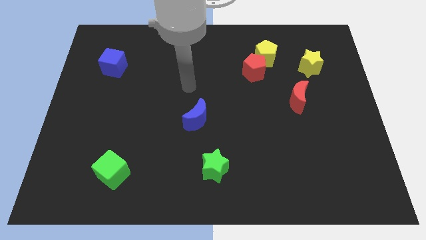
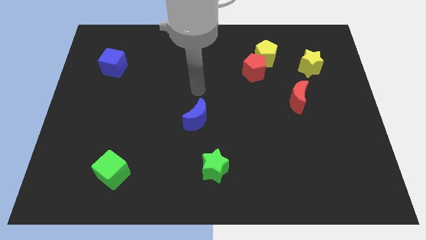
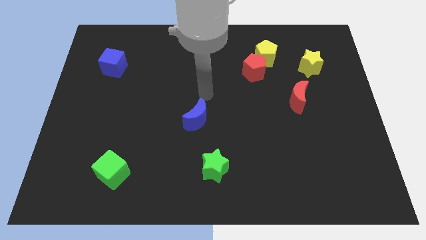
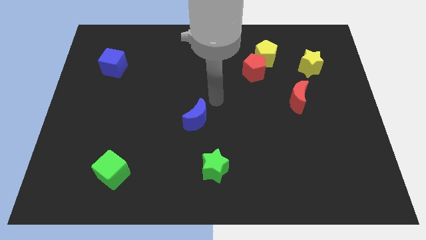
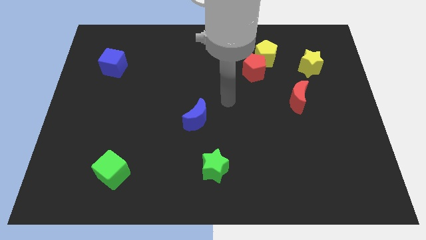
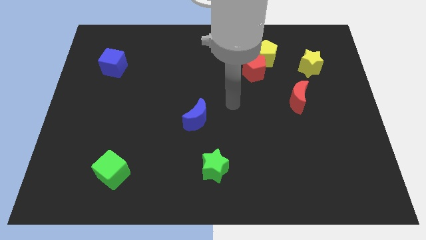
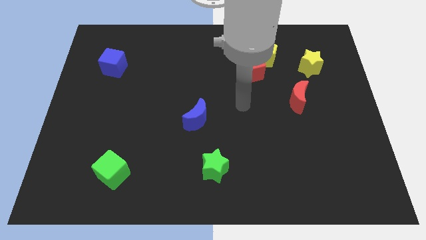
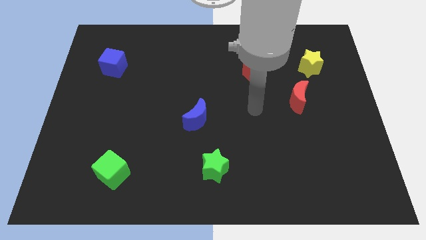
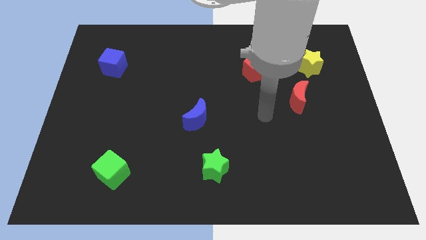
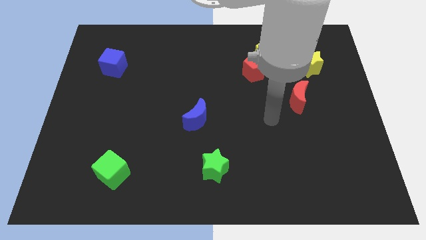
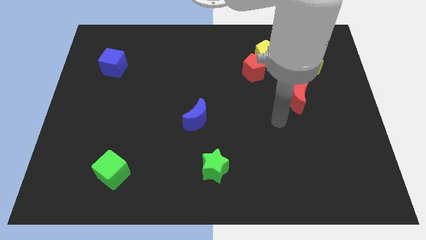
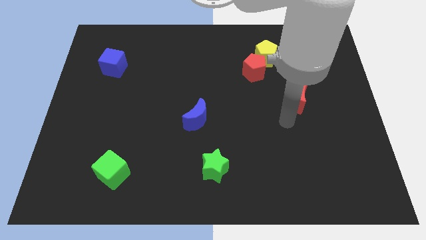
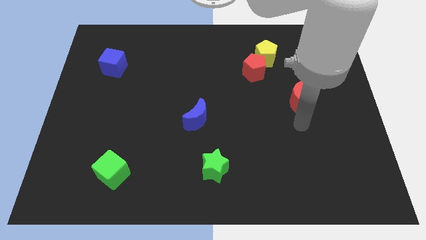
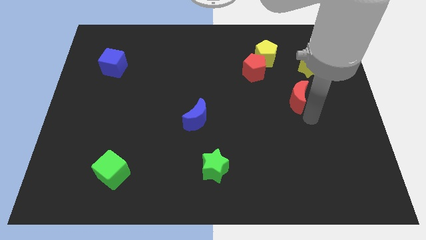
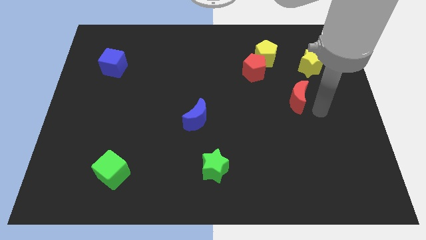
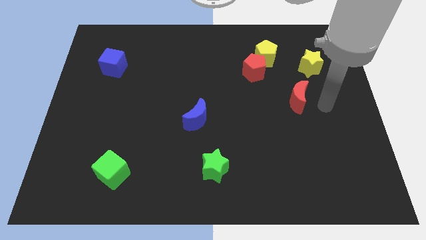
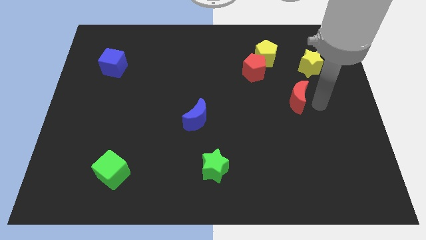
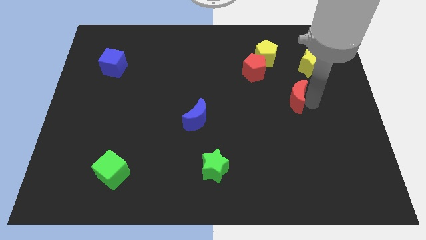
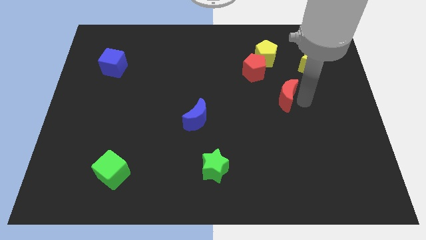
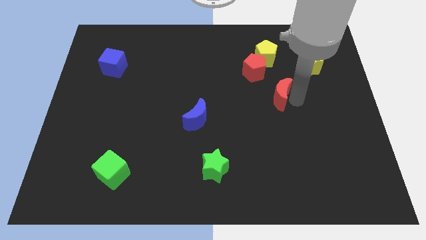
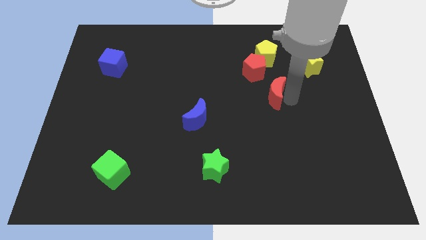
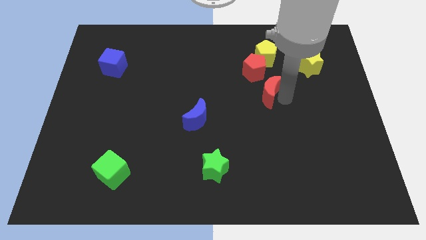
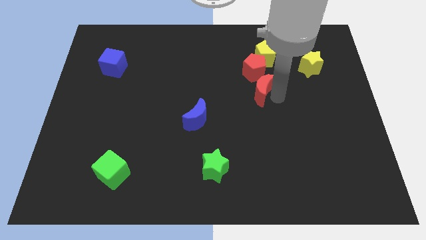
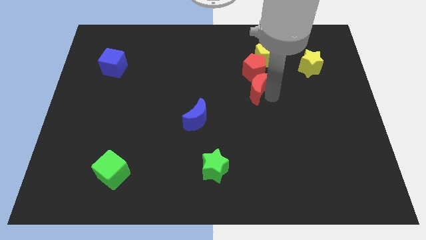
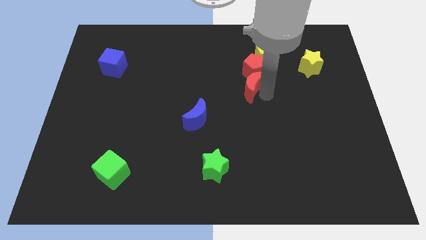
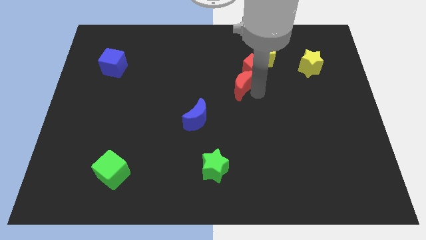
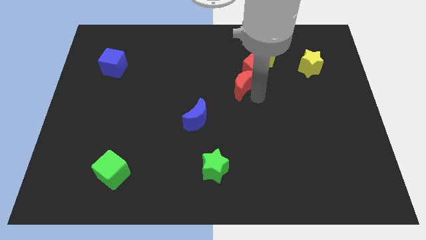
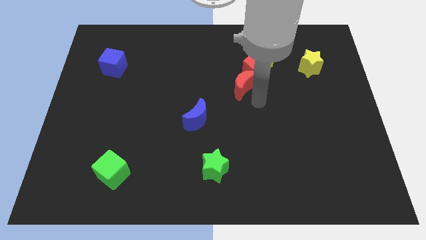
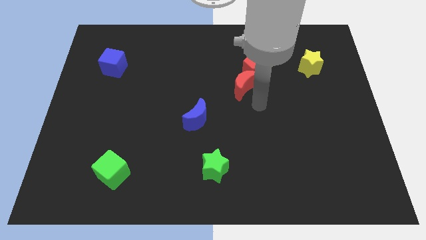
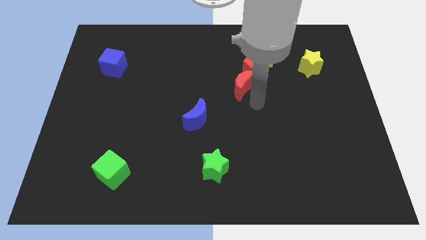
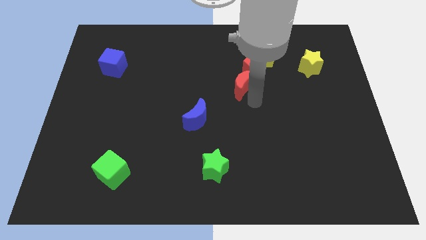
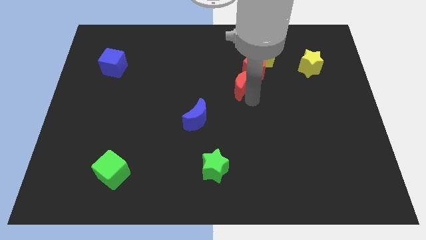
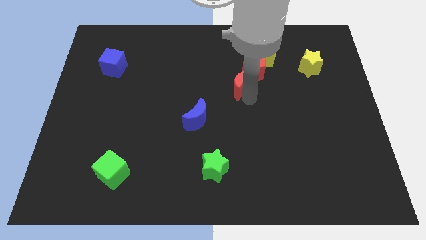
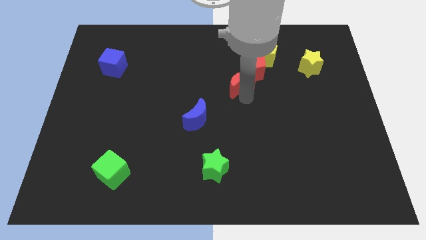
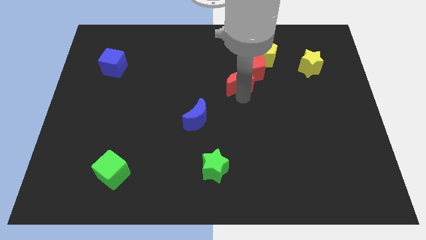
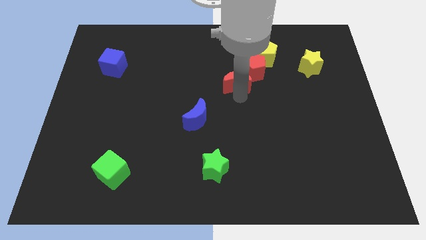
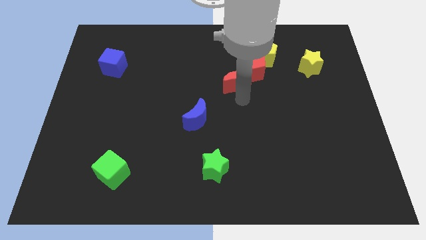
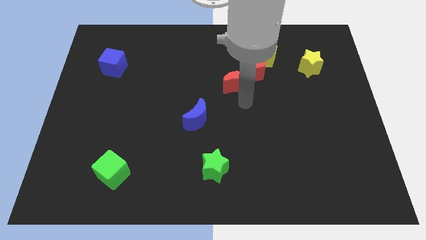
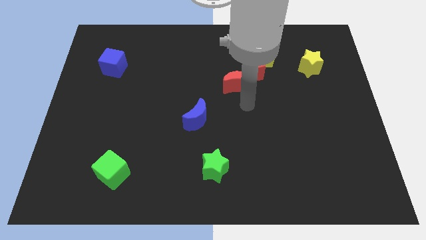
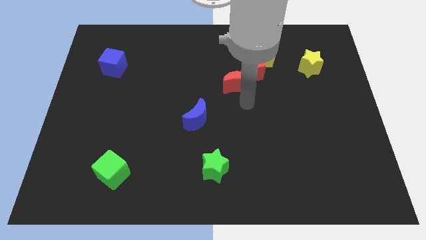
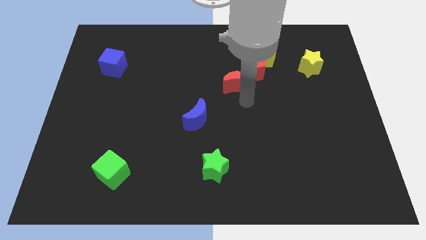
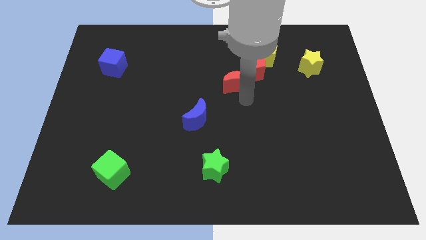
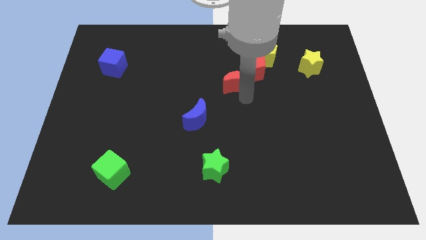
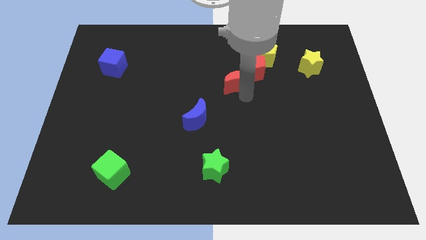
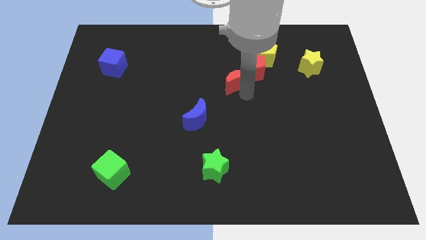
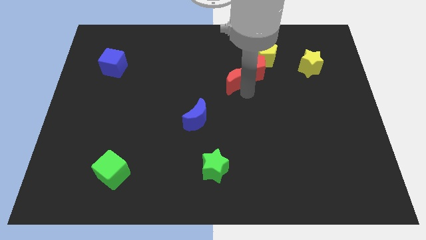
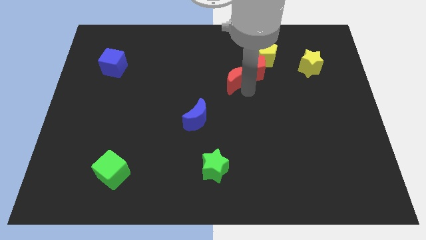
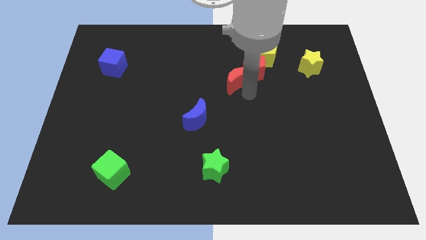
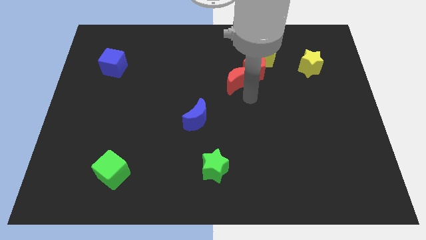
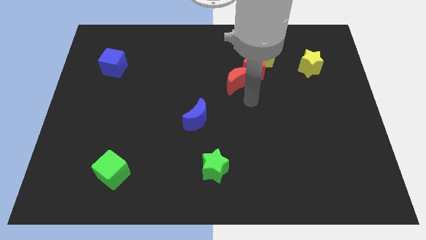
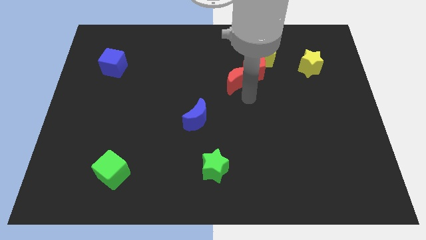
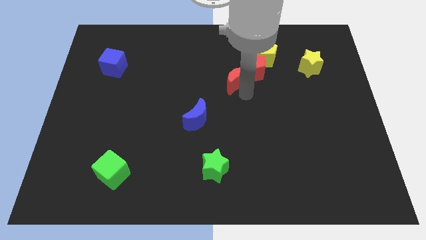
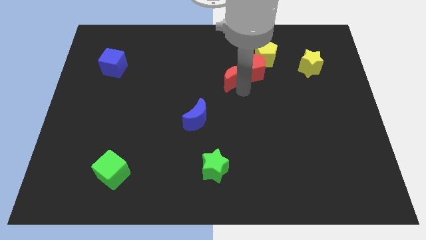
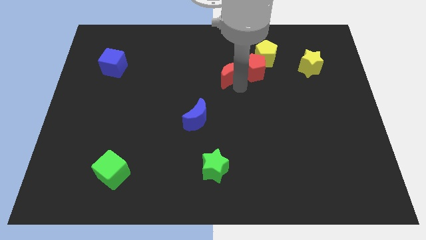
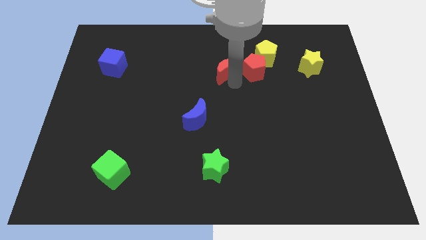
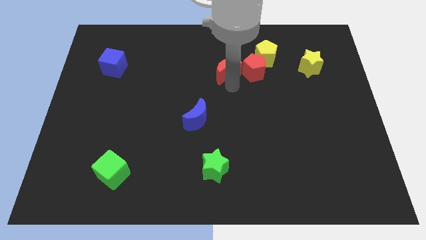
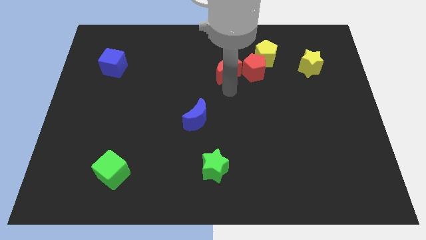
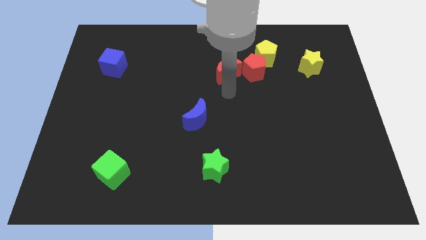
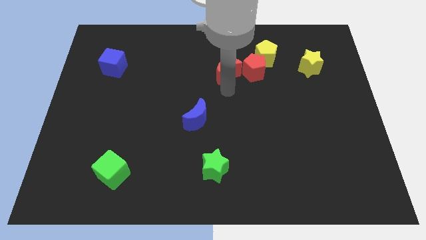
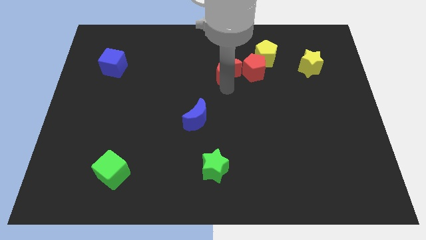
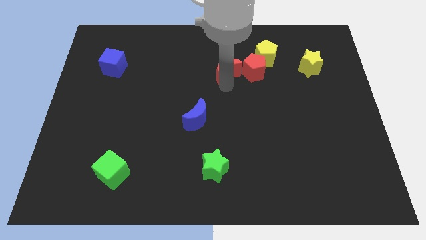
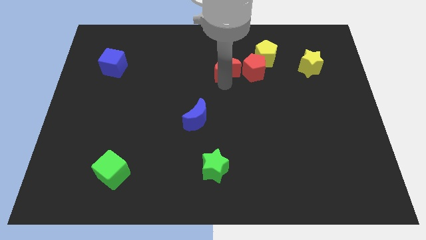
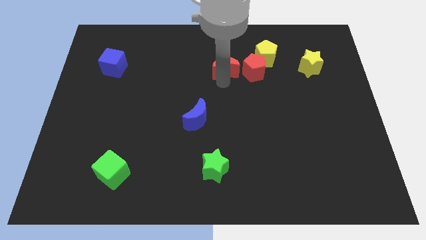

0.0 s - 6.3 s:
move the red moon to the left of the yellow pentagon

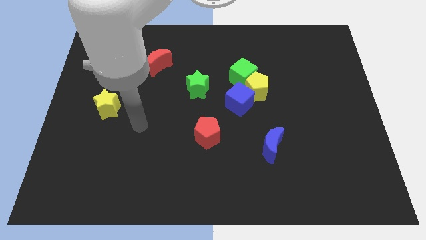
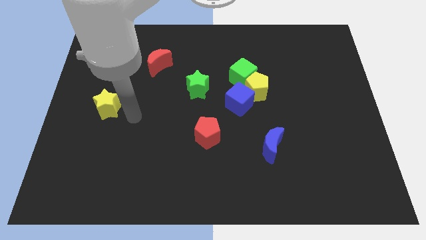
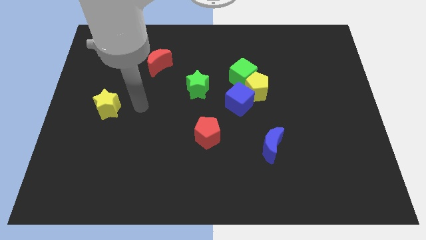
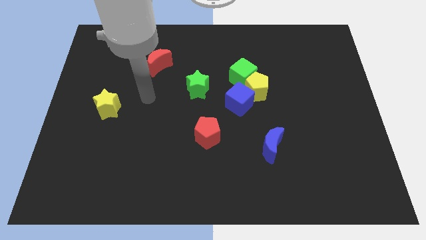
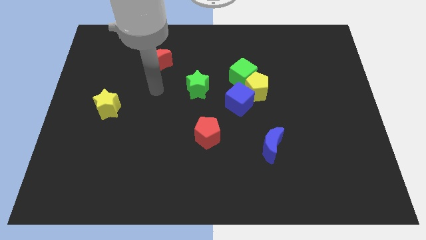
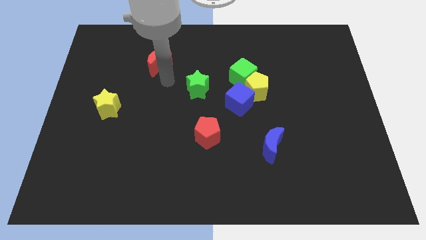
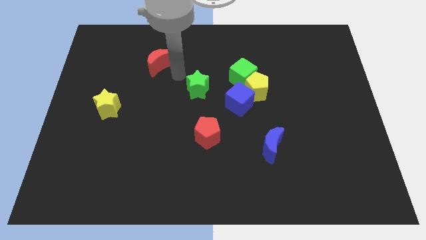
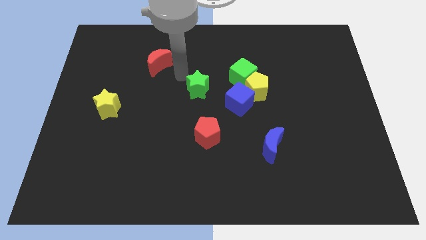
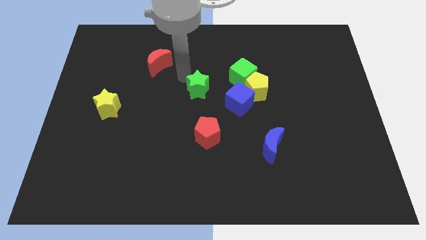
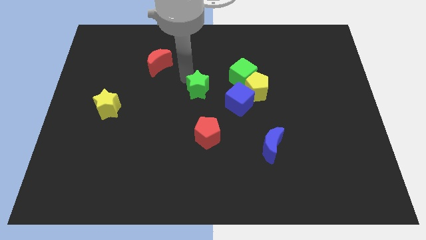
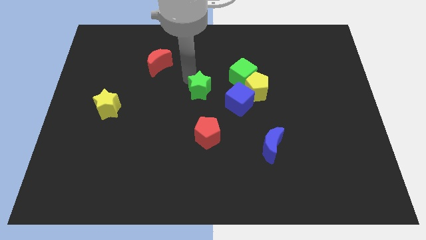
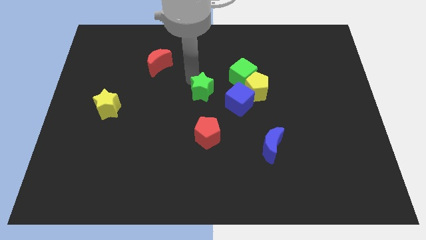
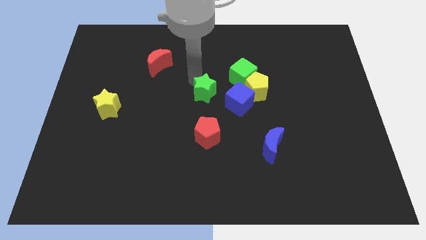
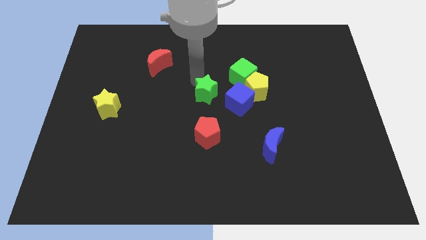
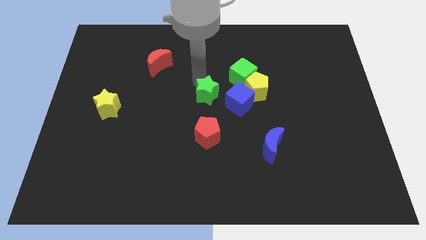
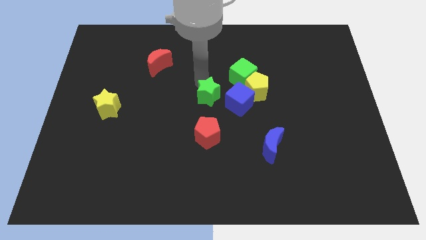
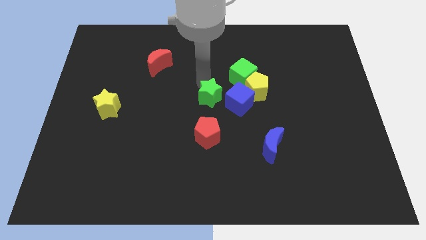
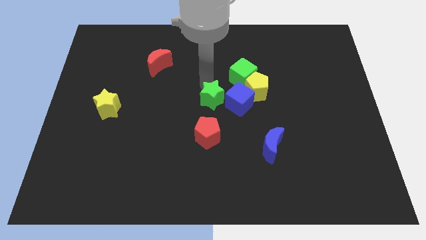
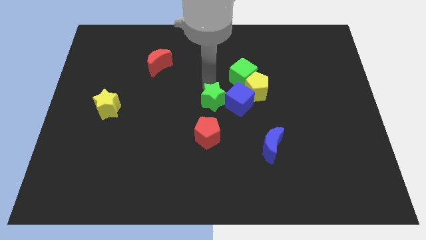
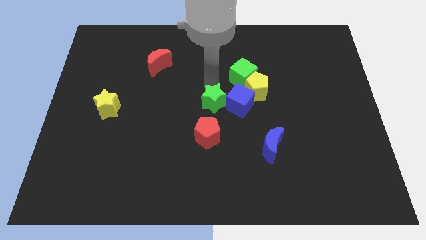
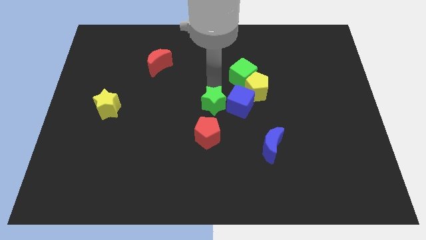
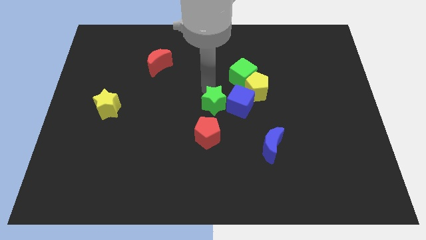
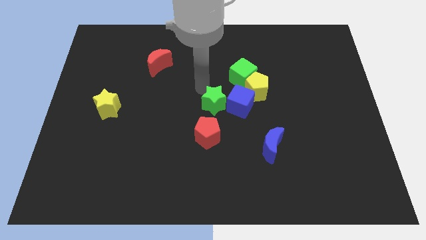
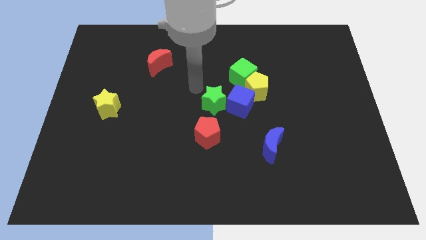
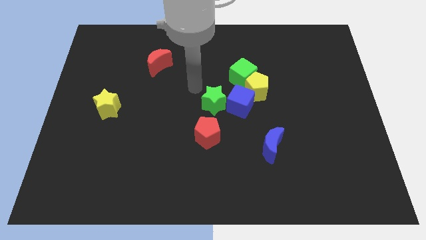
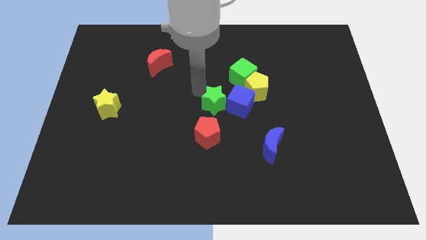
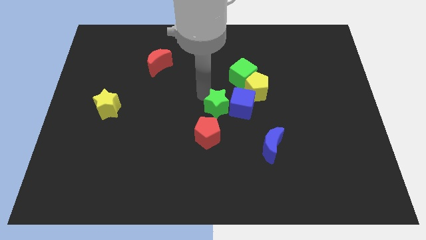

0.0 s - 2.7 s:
slide the green star to the top right side of the red pentagon
